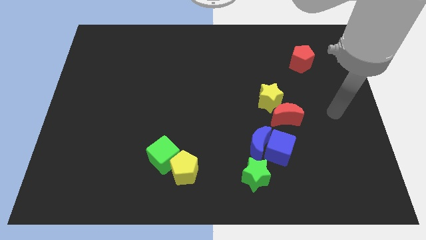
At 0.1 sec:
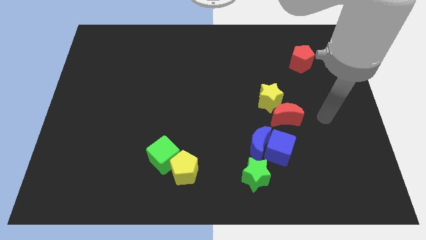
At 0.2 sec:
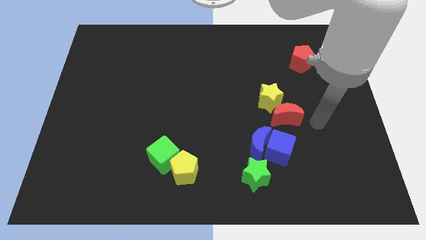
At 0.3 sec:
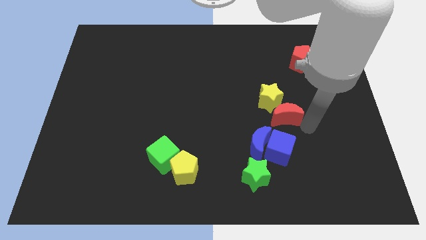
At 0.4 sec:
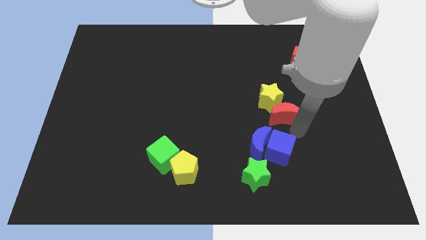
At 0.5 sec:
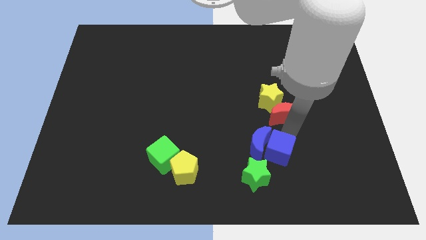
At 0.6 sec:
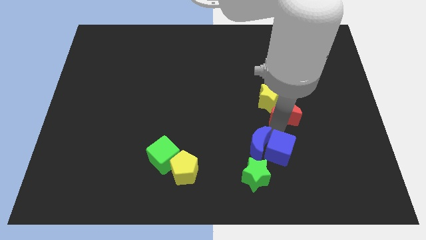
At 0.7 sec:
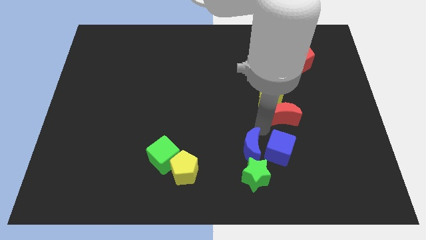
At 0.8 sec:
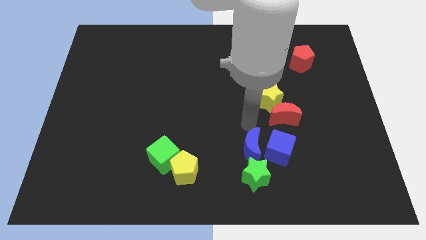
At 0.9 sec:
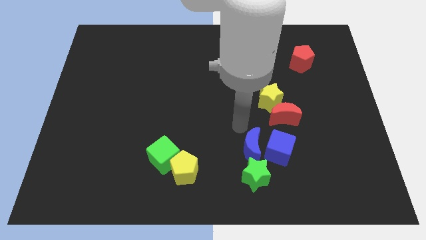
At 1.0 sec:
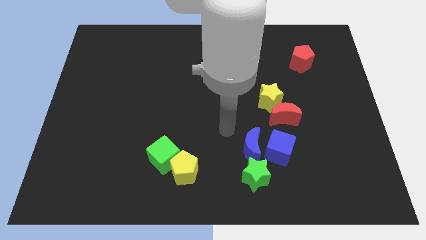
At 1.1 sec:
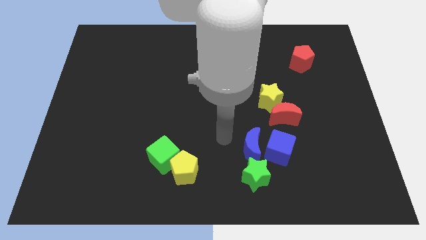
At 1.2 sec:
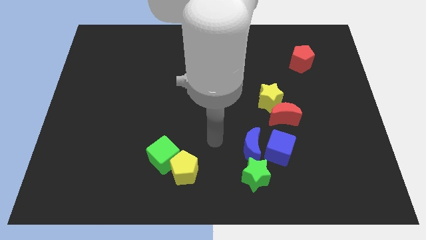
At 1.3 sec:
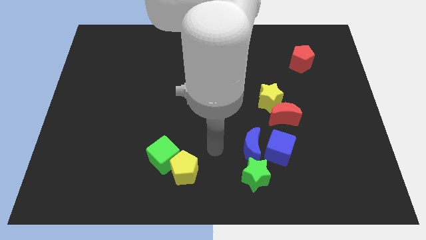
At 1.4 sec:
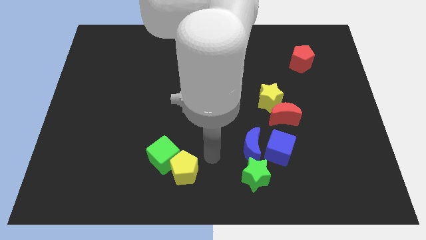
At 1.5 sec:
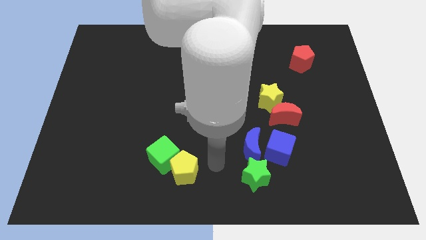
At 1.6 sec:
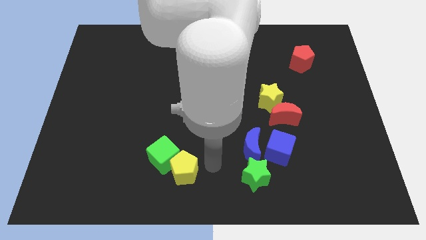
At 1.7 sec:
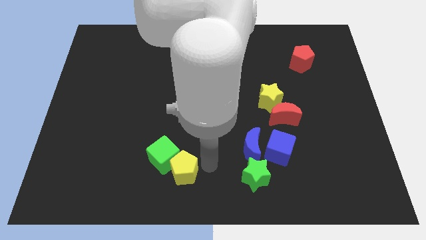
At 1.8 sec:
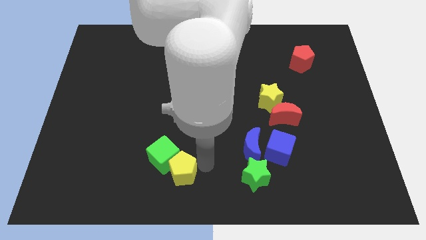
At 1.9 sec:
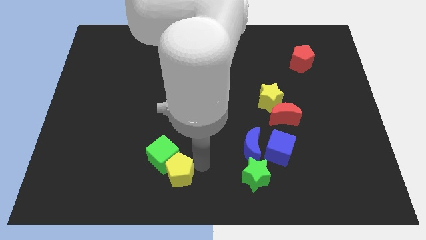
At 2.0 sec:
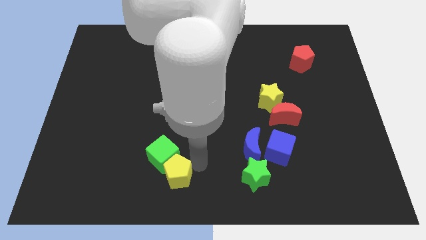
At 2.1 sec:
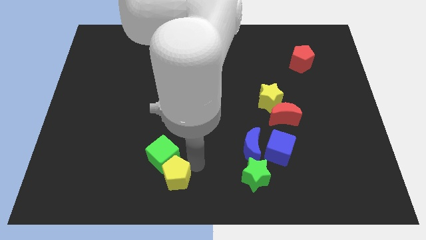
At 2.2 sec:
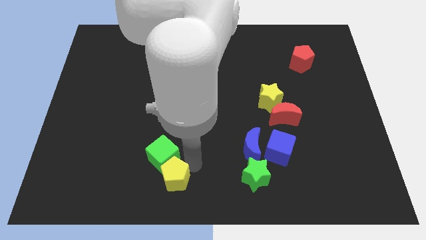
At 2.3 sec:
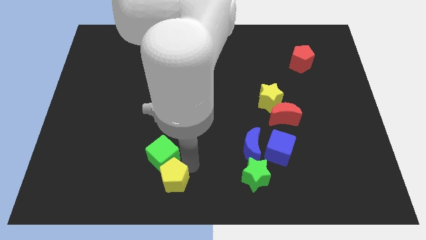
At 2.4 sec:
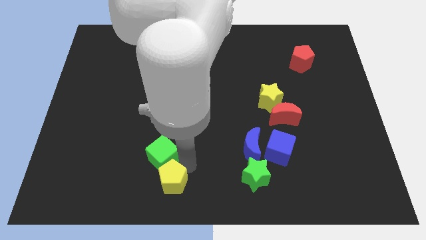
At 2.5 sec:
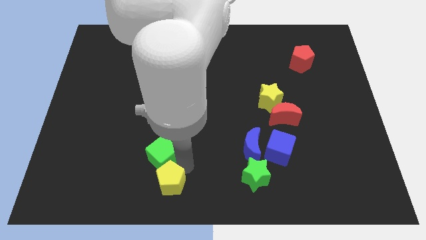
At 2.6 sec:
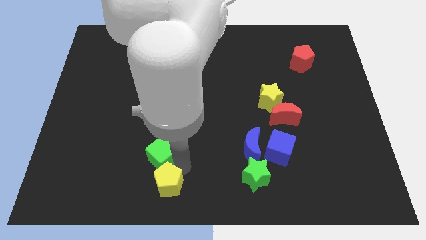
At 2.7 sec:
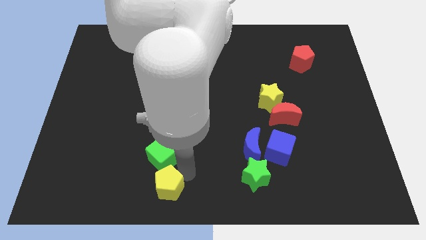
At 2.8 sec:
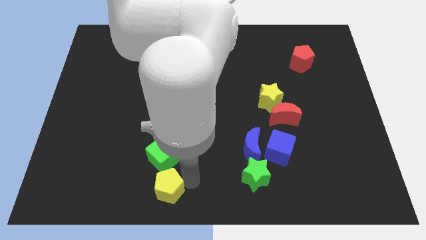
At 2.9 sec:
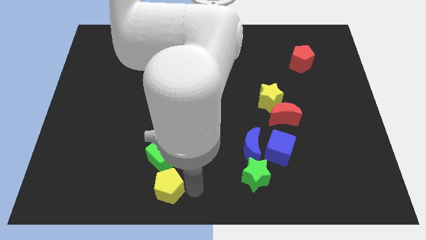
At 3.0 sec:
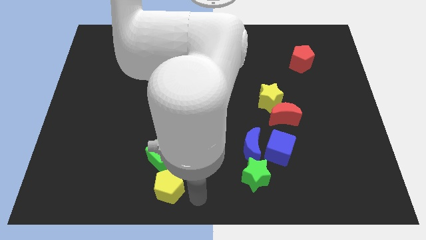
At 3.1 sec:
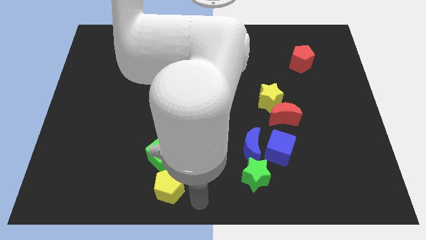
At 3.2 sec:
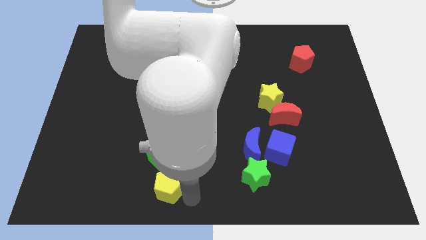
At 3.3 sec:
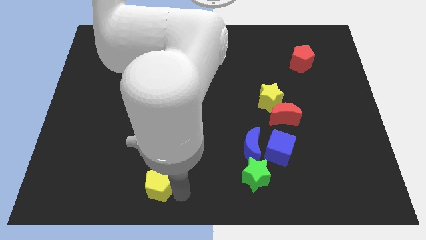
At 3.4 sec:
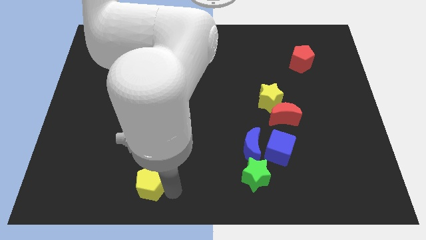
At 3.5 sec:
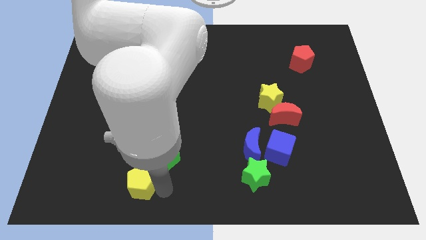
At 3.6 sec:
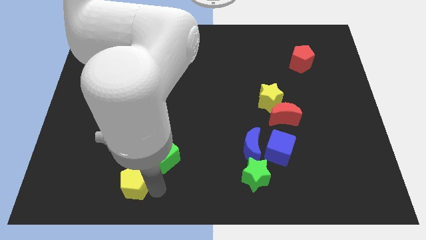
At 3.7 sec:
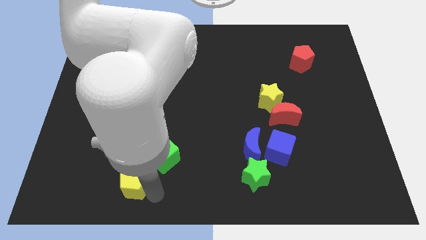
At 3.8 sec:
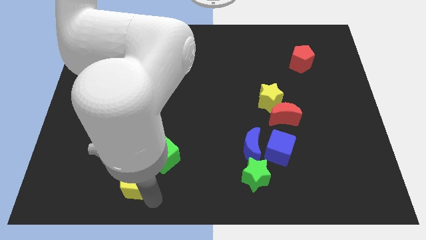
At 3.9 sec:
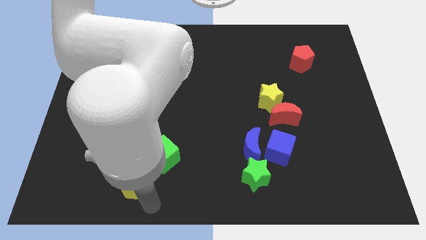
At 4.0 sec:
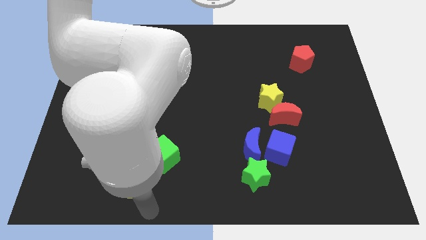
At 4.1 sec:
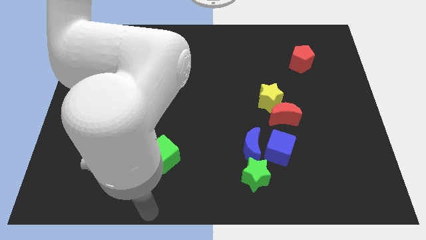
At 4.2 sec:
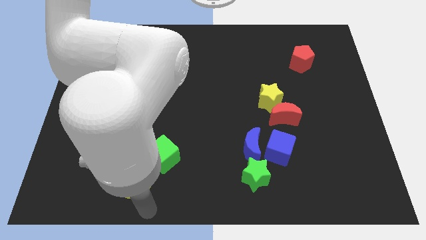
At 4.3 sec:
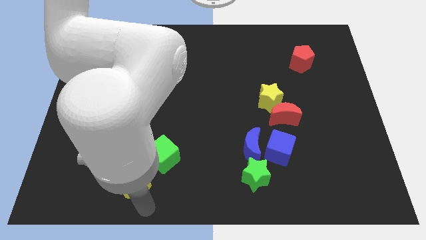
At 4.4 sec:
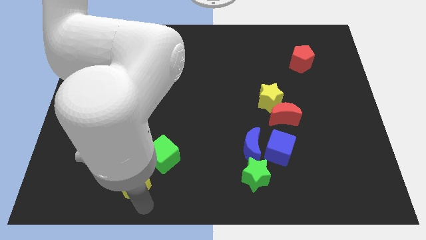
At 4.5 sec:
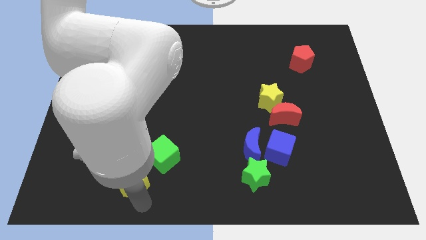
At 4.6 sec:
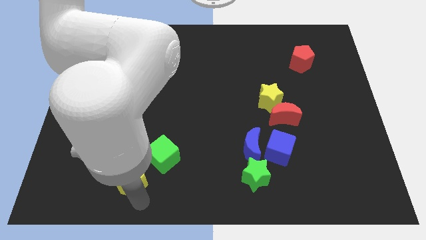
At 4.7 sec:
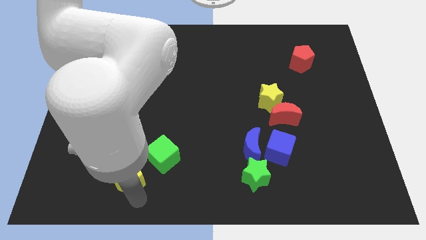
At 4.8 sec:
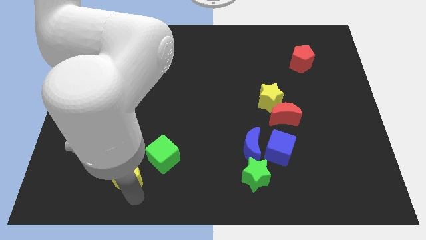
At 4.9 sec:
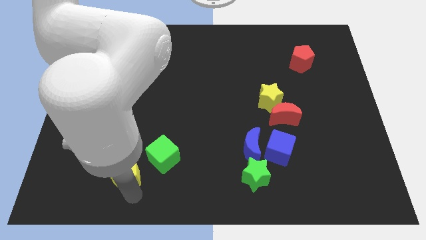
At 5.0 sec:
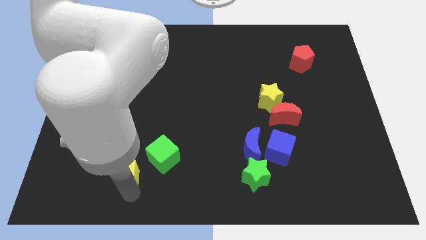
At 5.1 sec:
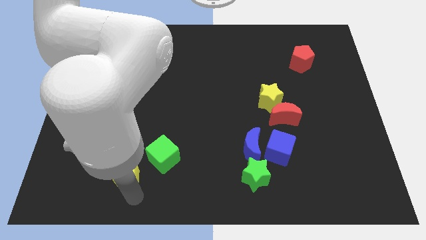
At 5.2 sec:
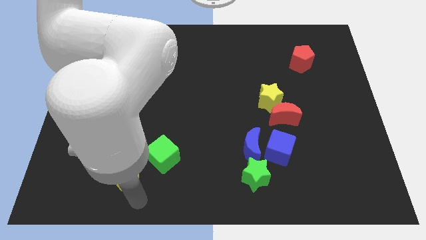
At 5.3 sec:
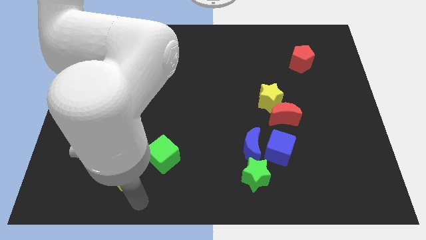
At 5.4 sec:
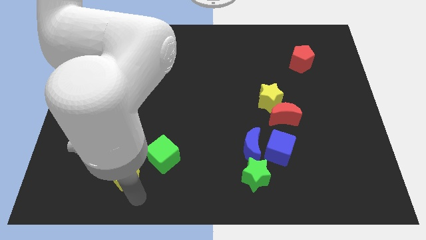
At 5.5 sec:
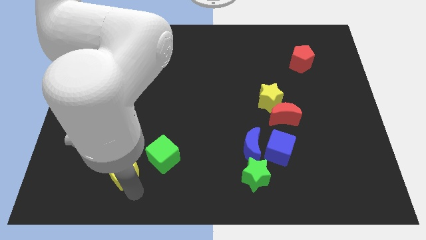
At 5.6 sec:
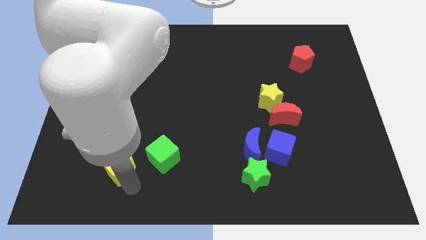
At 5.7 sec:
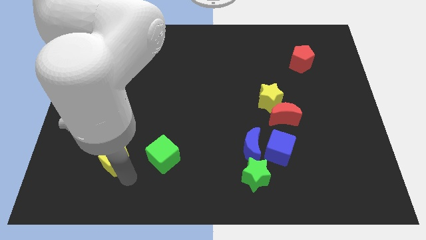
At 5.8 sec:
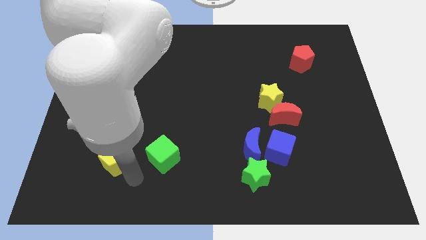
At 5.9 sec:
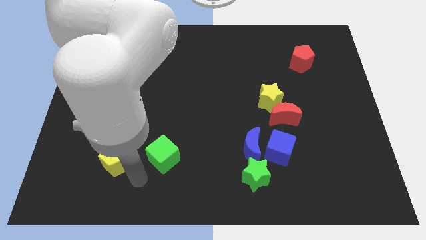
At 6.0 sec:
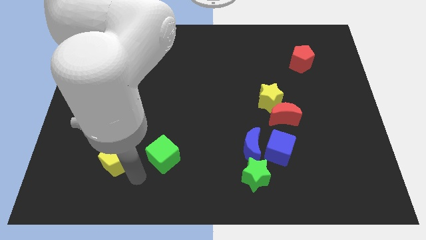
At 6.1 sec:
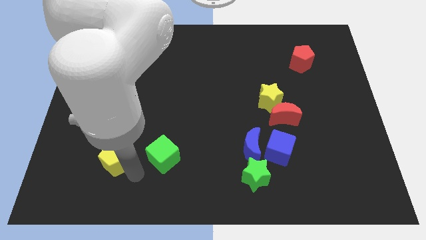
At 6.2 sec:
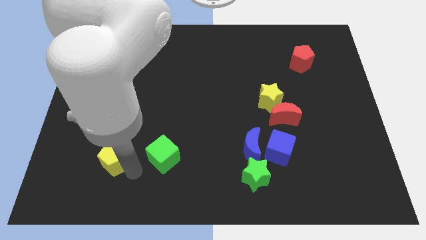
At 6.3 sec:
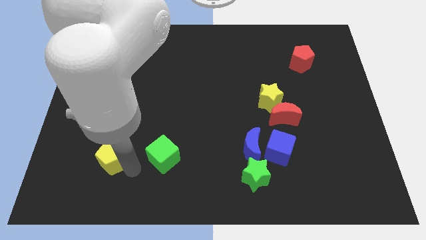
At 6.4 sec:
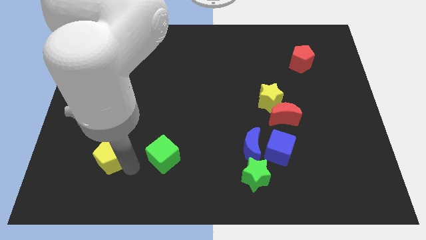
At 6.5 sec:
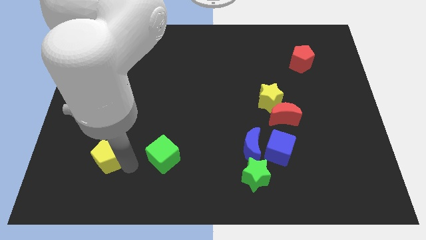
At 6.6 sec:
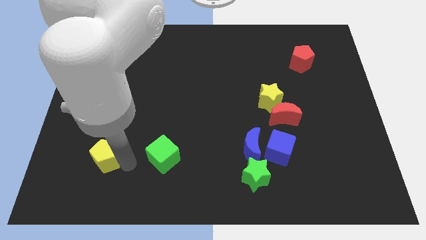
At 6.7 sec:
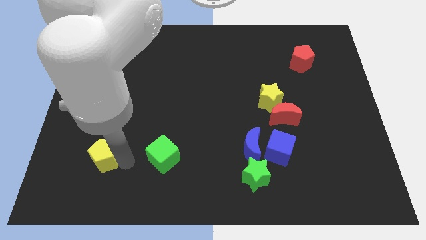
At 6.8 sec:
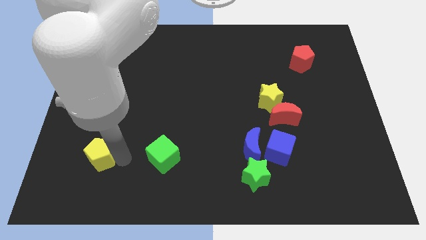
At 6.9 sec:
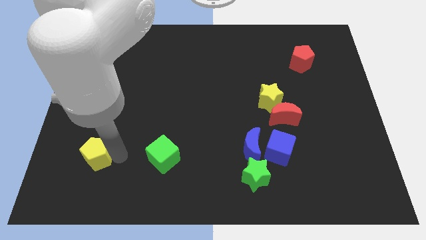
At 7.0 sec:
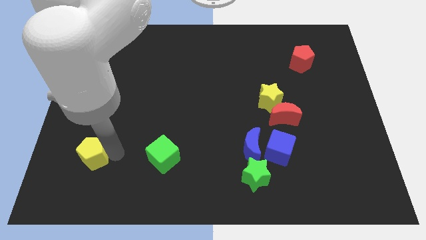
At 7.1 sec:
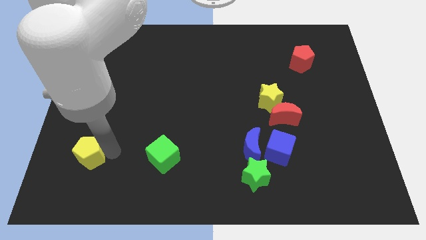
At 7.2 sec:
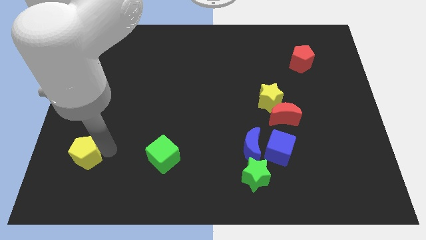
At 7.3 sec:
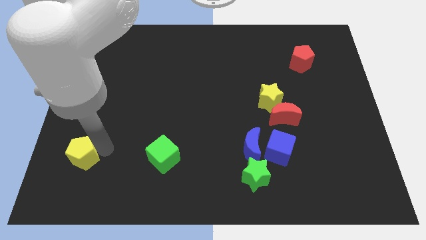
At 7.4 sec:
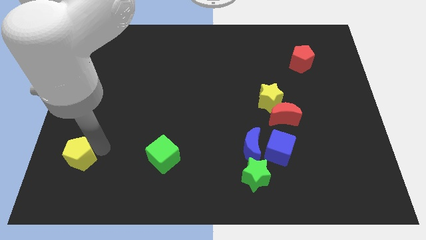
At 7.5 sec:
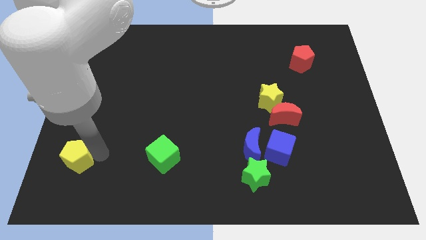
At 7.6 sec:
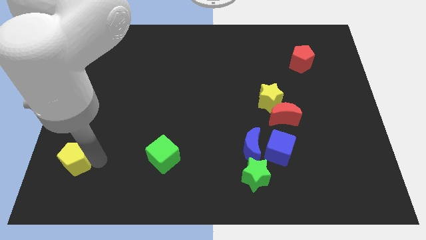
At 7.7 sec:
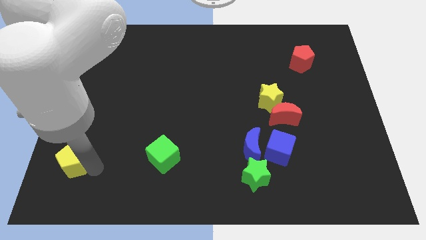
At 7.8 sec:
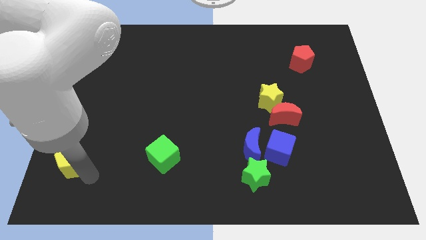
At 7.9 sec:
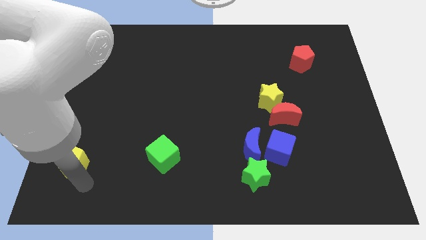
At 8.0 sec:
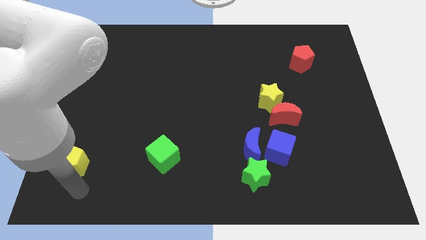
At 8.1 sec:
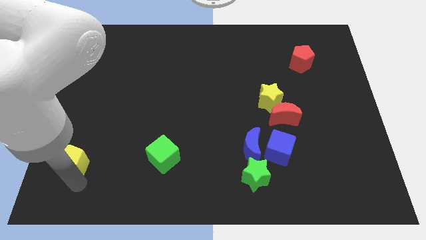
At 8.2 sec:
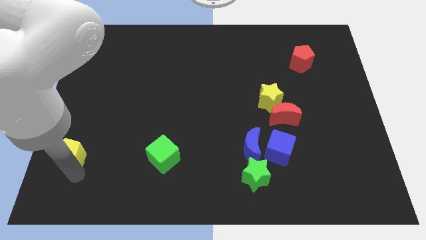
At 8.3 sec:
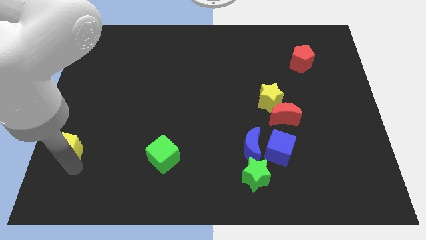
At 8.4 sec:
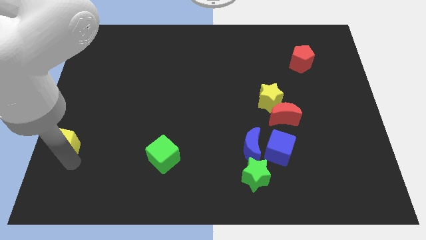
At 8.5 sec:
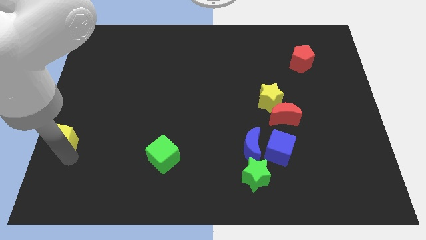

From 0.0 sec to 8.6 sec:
move the yellow pentagon to the left side of the board
